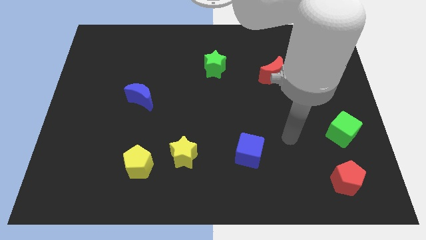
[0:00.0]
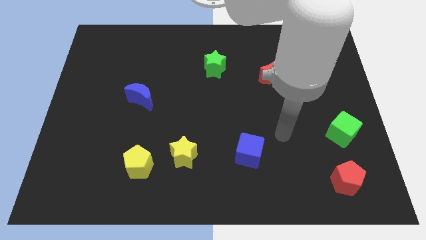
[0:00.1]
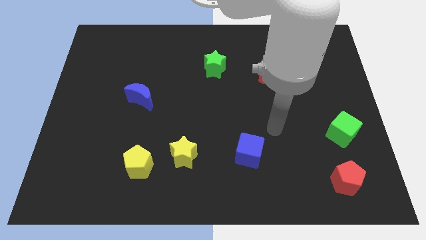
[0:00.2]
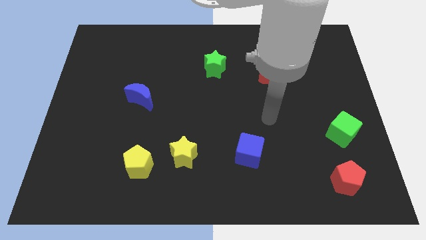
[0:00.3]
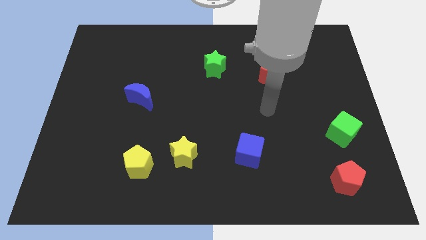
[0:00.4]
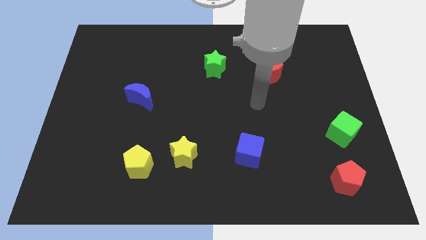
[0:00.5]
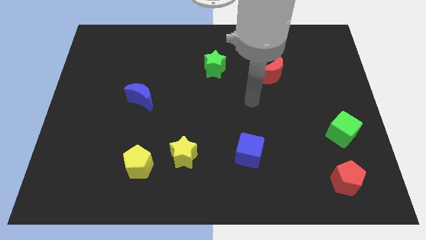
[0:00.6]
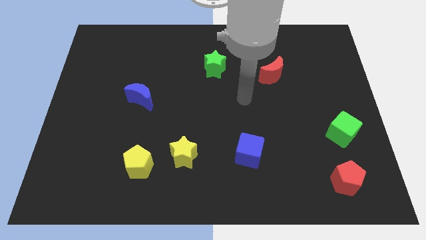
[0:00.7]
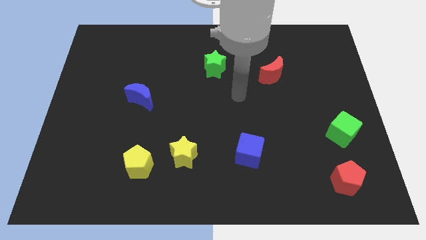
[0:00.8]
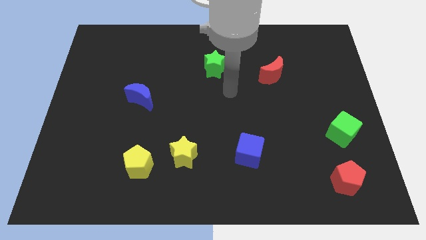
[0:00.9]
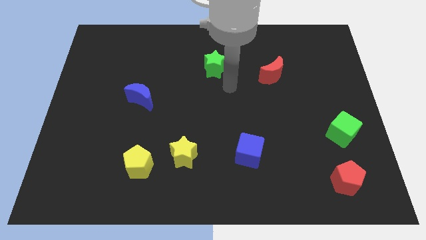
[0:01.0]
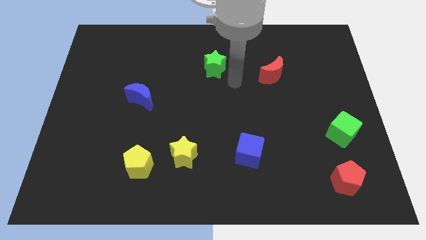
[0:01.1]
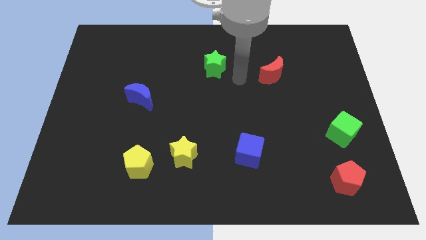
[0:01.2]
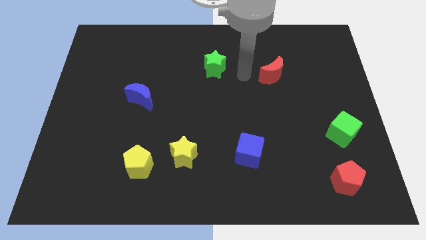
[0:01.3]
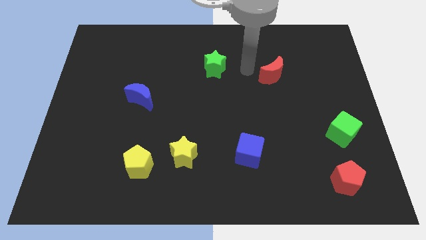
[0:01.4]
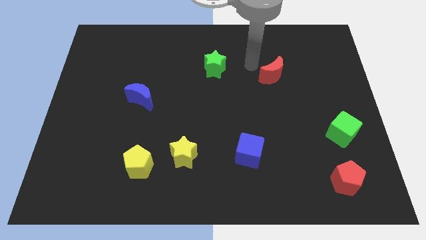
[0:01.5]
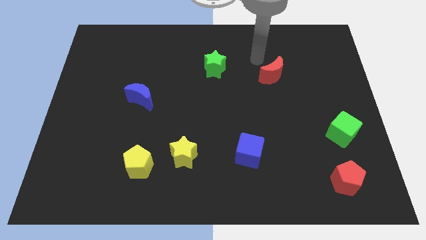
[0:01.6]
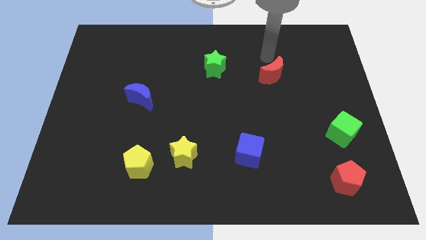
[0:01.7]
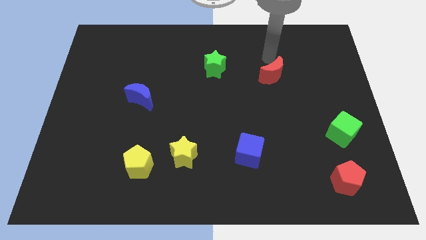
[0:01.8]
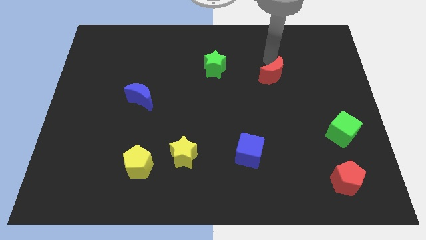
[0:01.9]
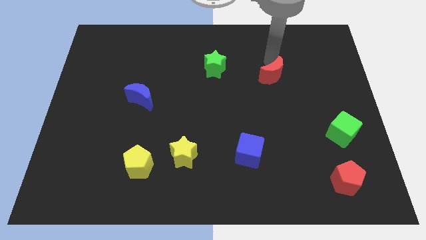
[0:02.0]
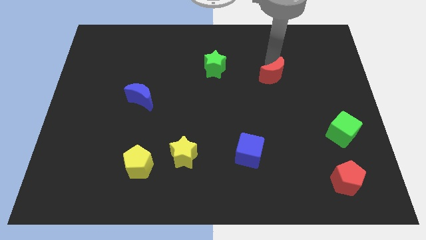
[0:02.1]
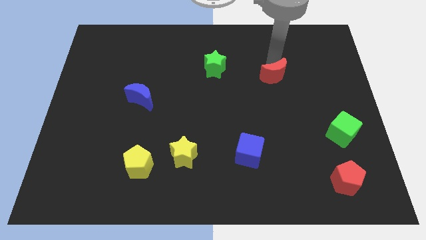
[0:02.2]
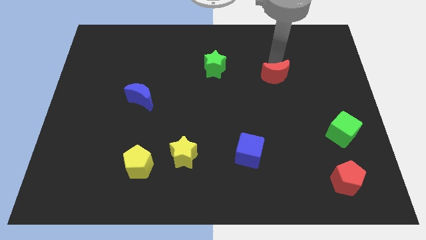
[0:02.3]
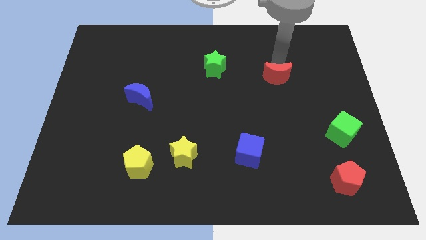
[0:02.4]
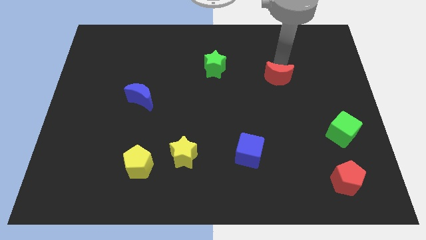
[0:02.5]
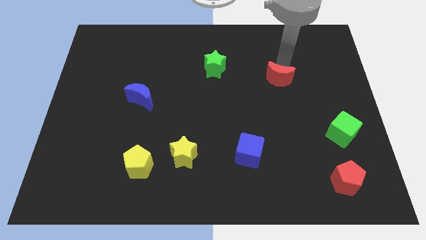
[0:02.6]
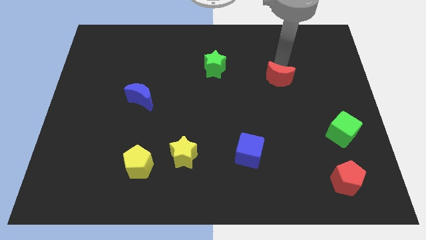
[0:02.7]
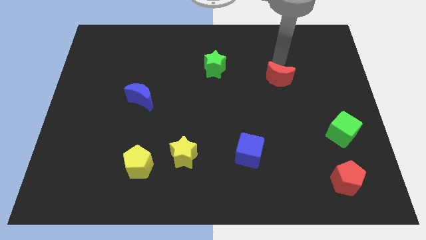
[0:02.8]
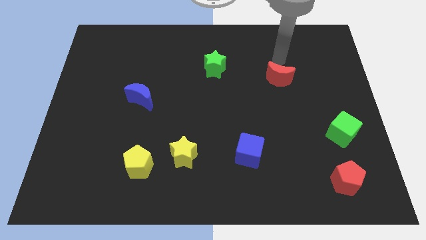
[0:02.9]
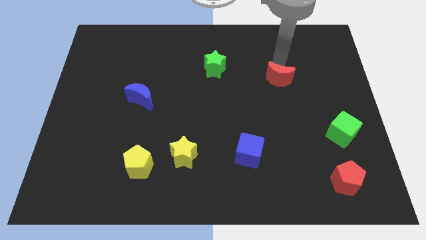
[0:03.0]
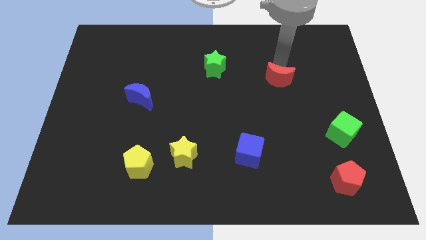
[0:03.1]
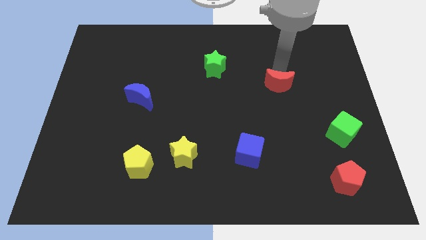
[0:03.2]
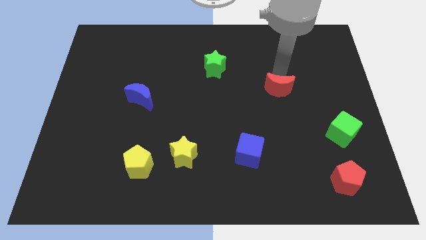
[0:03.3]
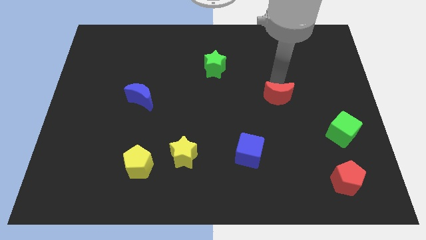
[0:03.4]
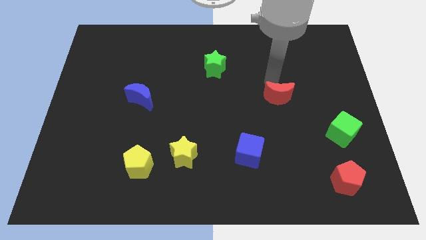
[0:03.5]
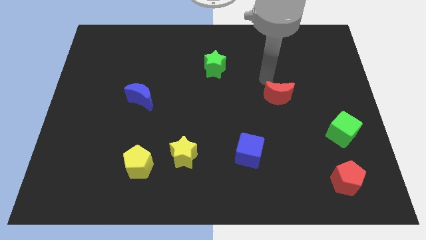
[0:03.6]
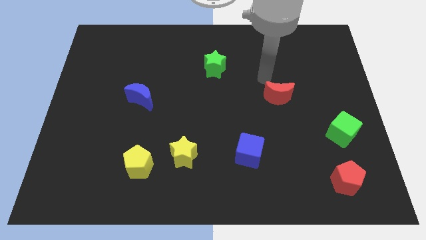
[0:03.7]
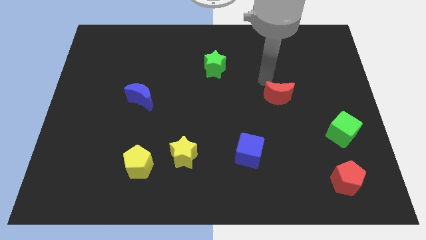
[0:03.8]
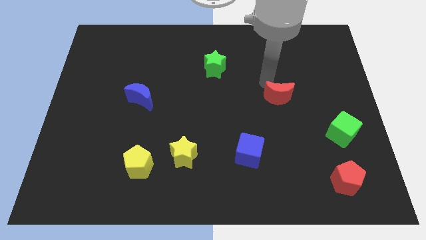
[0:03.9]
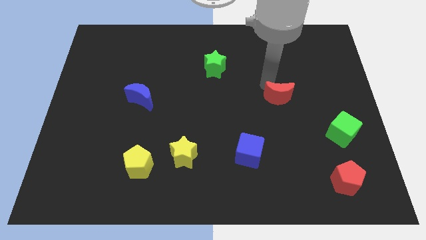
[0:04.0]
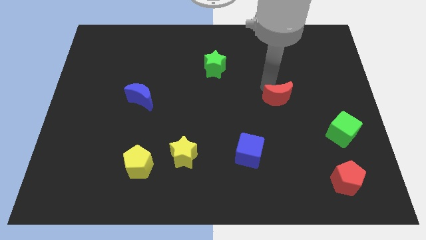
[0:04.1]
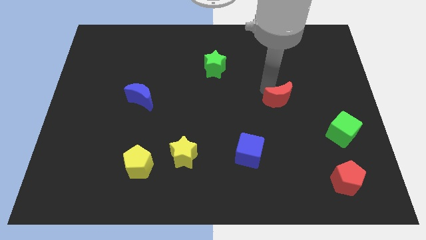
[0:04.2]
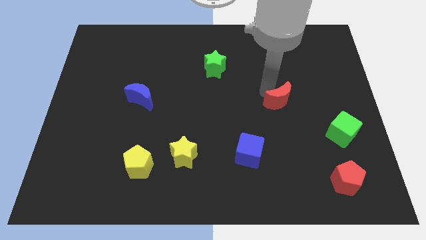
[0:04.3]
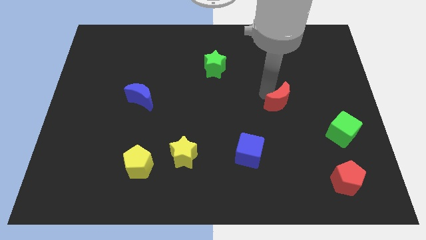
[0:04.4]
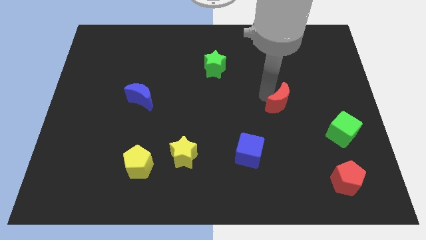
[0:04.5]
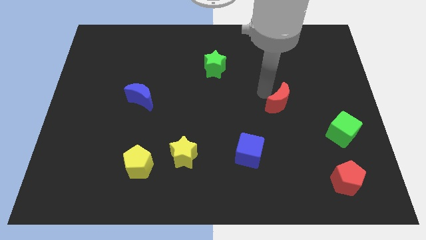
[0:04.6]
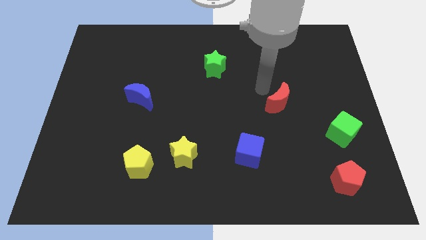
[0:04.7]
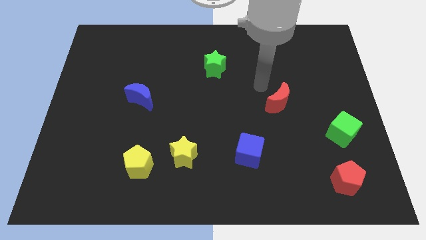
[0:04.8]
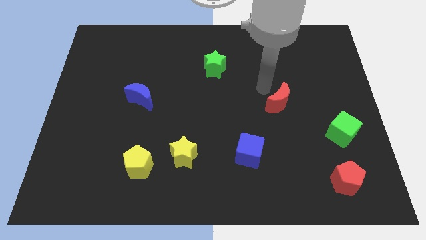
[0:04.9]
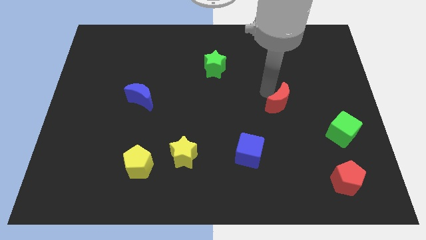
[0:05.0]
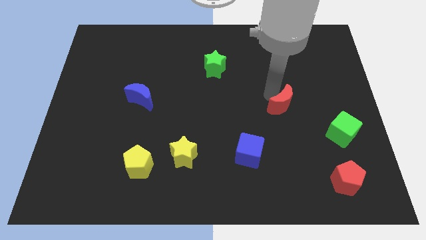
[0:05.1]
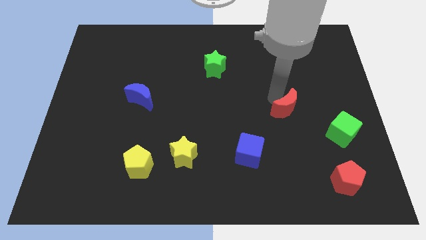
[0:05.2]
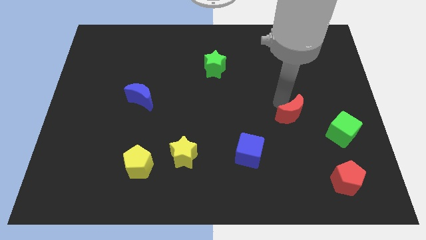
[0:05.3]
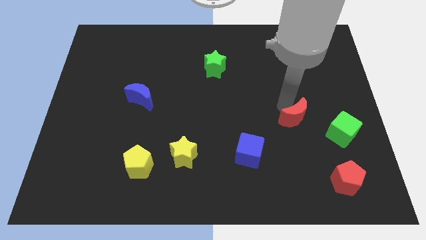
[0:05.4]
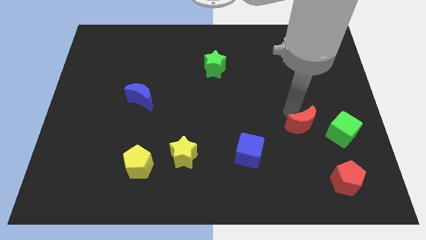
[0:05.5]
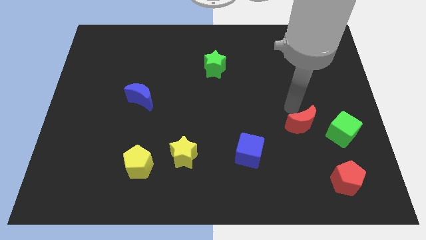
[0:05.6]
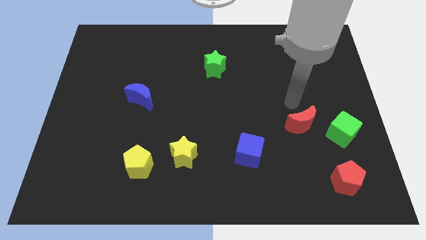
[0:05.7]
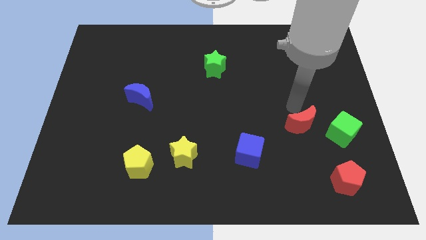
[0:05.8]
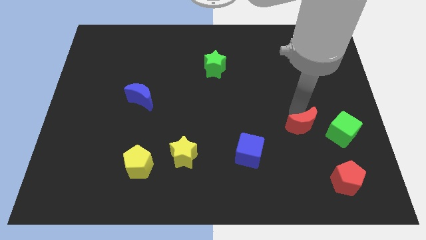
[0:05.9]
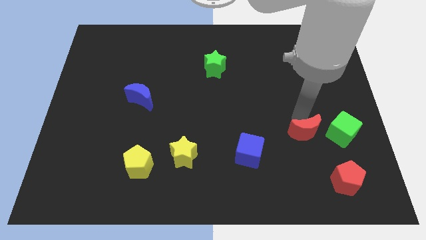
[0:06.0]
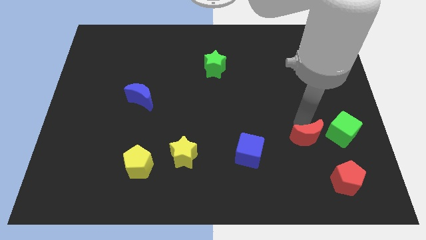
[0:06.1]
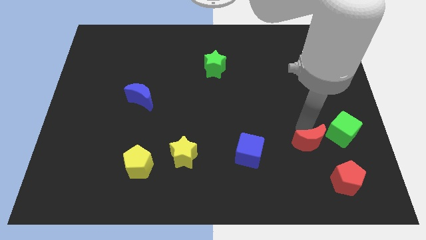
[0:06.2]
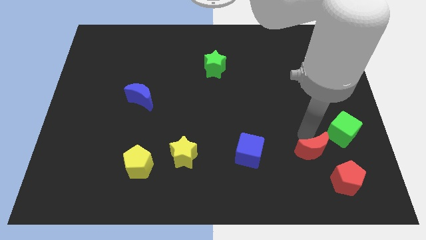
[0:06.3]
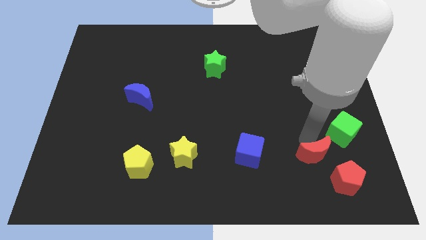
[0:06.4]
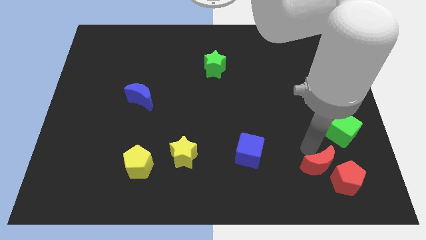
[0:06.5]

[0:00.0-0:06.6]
slide the red moon next to the red pentagon
